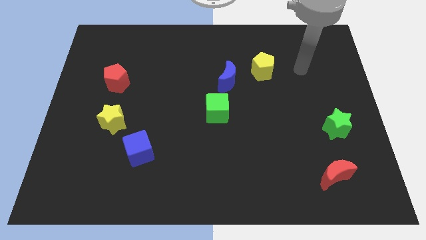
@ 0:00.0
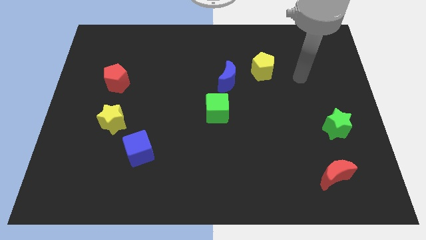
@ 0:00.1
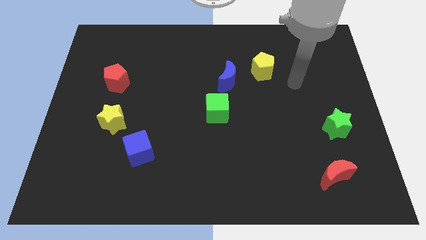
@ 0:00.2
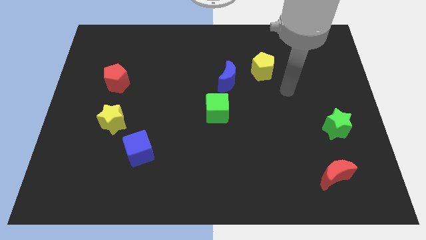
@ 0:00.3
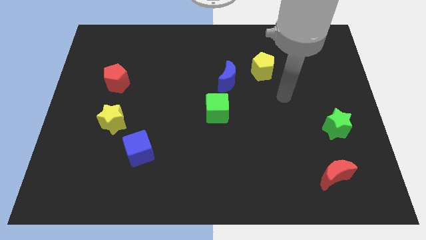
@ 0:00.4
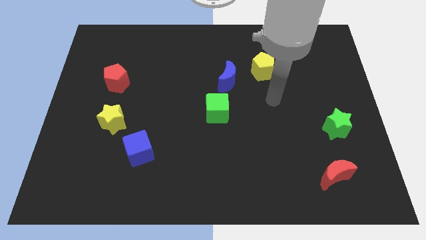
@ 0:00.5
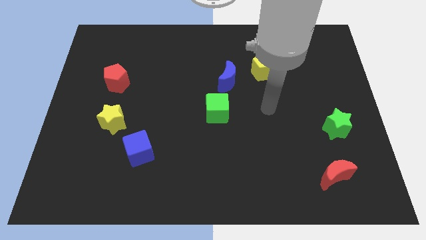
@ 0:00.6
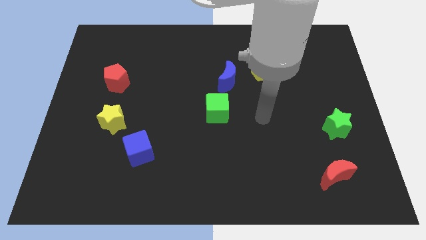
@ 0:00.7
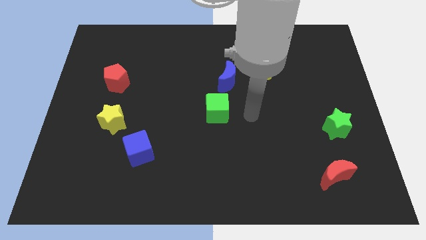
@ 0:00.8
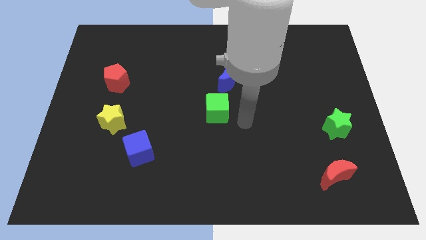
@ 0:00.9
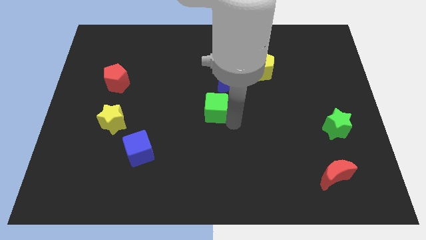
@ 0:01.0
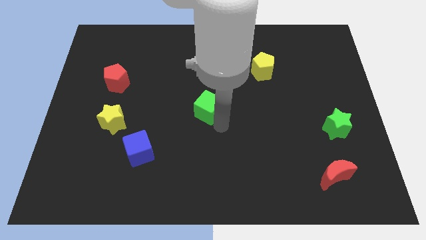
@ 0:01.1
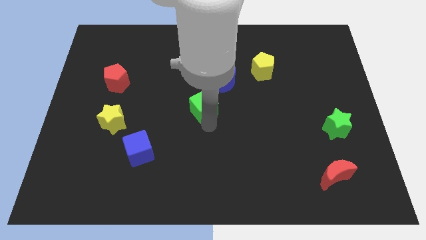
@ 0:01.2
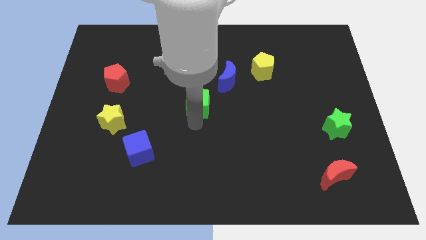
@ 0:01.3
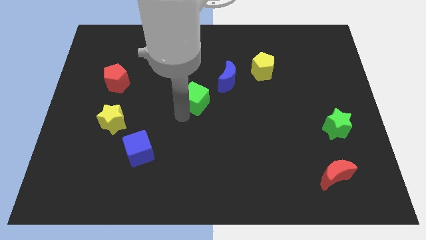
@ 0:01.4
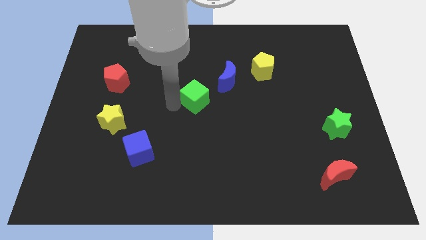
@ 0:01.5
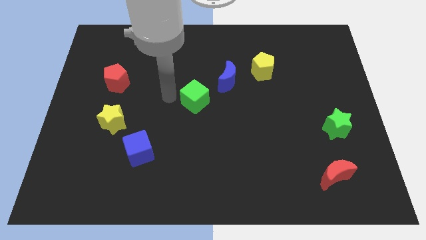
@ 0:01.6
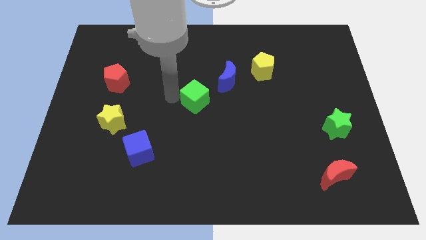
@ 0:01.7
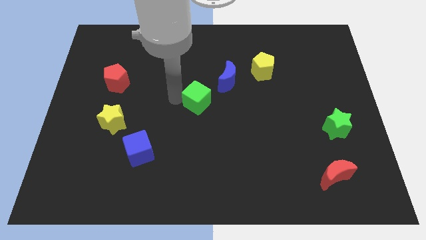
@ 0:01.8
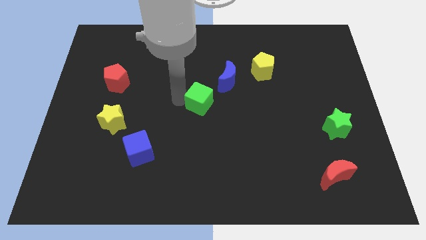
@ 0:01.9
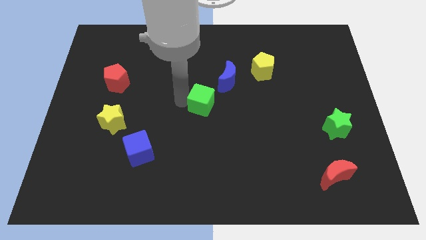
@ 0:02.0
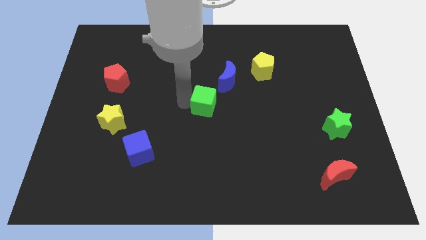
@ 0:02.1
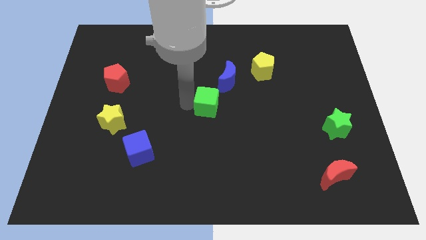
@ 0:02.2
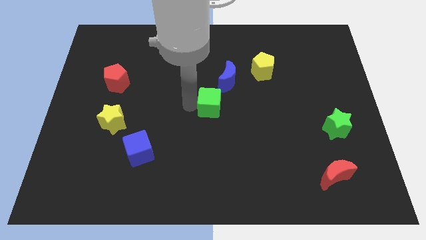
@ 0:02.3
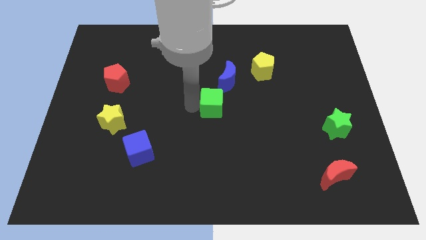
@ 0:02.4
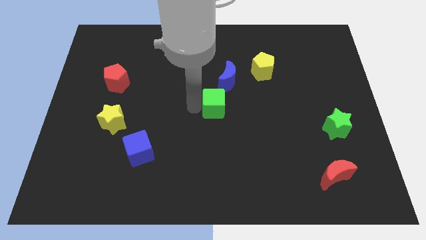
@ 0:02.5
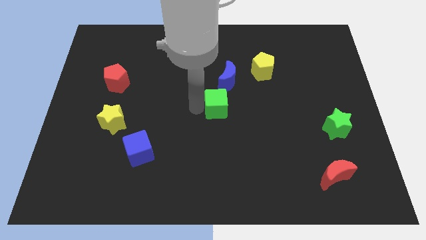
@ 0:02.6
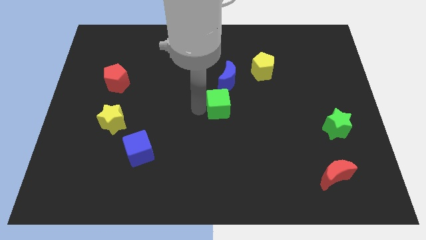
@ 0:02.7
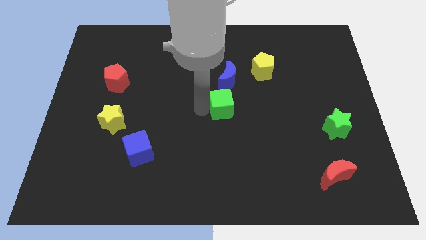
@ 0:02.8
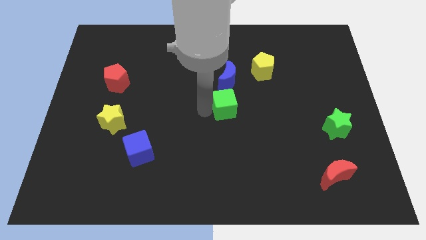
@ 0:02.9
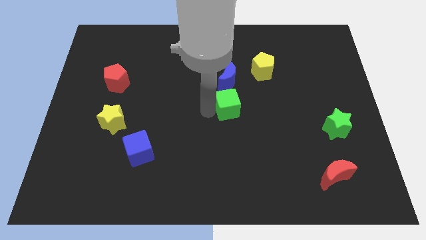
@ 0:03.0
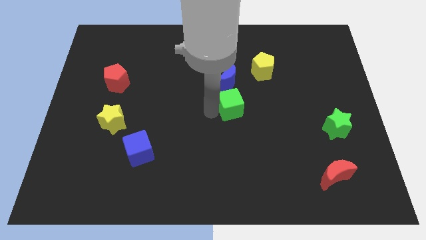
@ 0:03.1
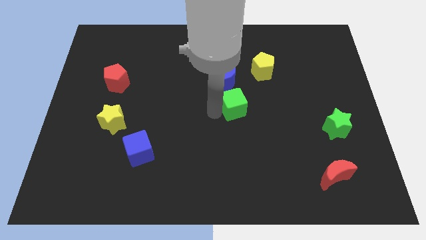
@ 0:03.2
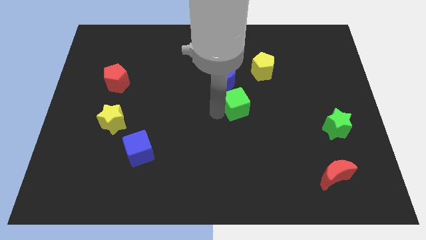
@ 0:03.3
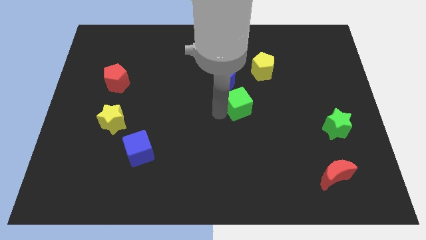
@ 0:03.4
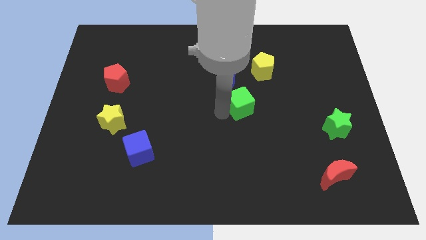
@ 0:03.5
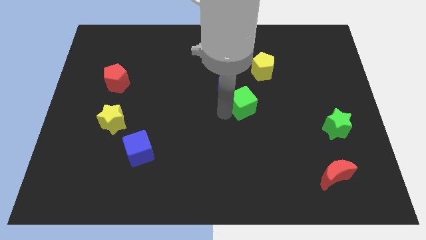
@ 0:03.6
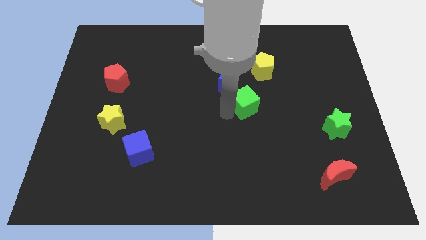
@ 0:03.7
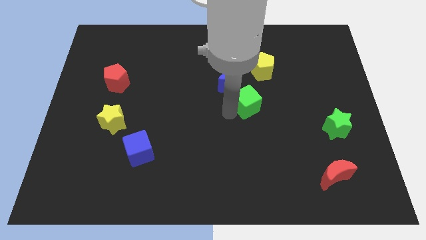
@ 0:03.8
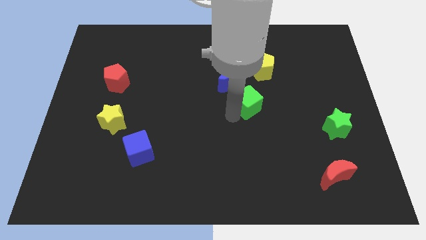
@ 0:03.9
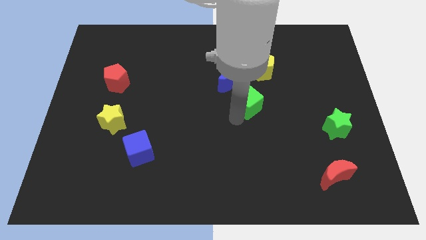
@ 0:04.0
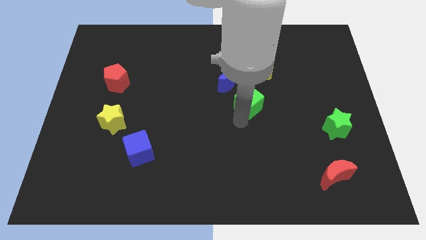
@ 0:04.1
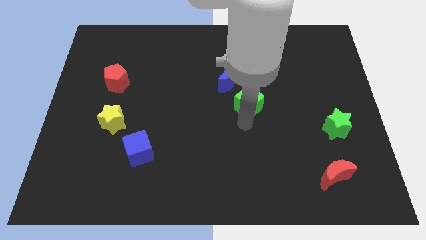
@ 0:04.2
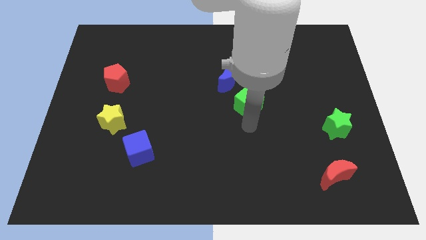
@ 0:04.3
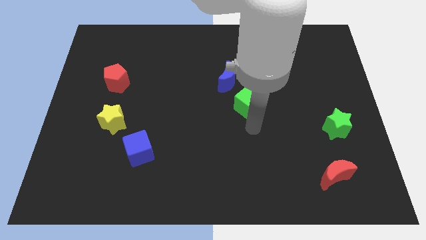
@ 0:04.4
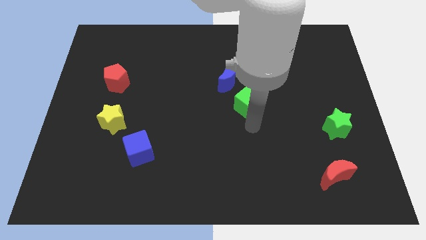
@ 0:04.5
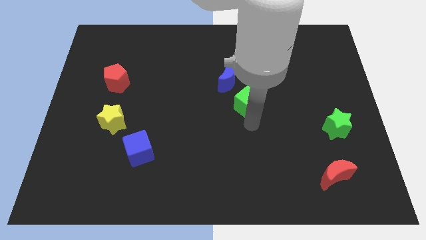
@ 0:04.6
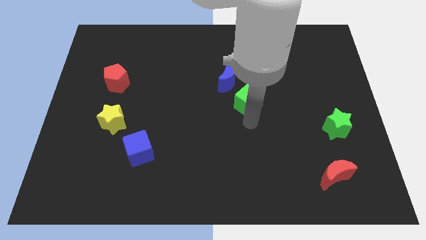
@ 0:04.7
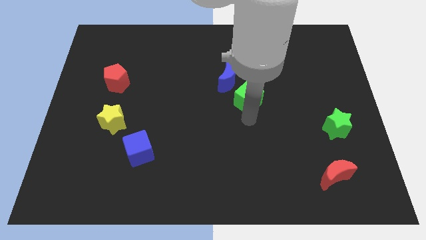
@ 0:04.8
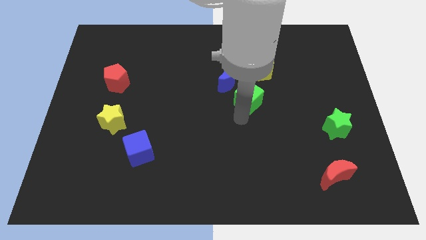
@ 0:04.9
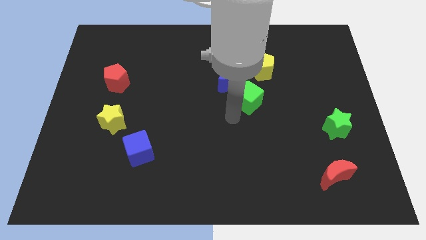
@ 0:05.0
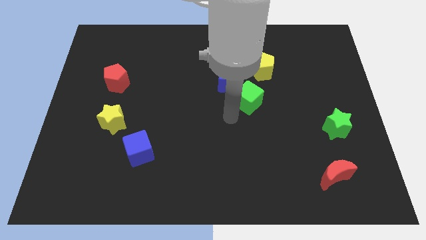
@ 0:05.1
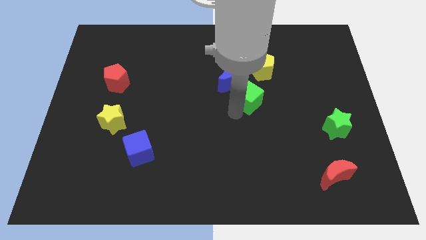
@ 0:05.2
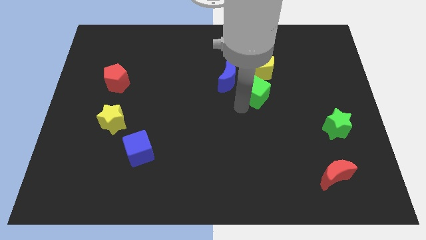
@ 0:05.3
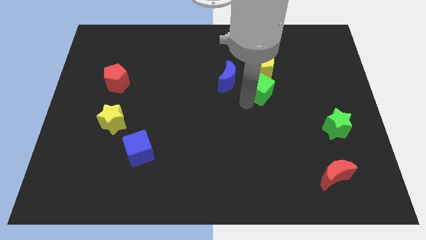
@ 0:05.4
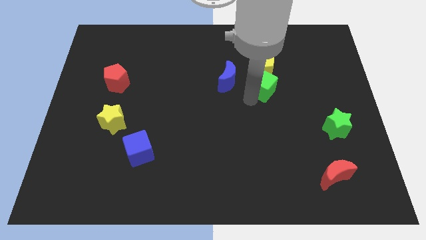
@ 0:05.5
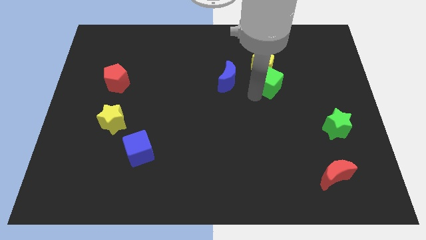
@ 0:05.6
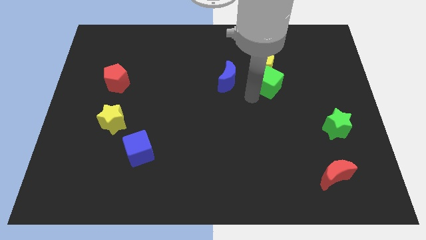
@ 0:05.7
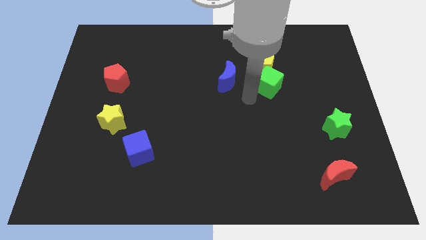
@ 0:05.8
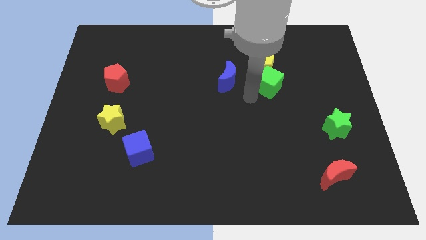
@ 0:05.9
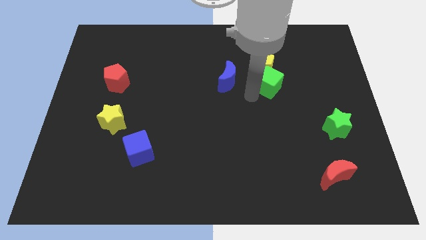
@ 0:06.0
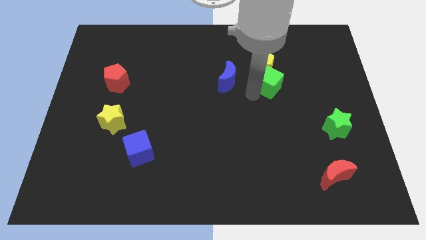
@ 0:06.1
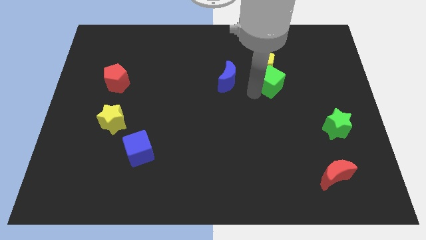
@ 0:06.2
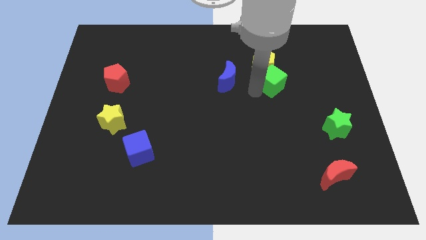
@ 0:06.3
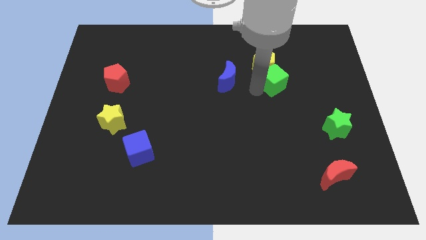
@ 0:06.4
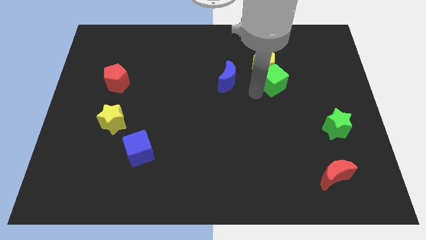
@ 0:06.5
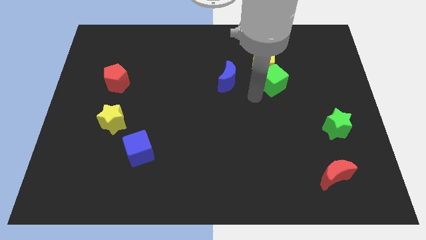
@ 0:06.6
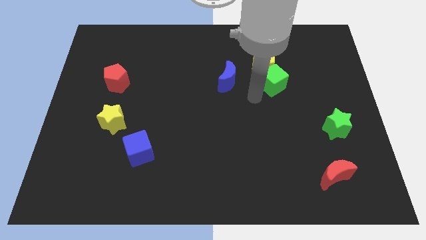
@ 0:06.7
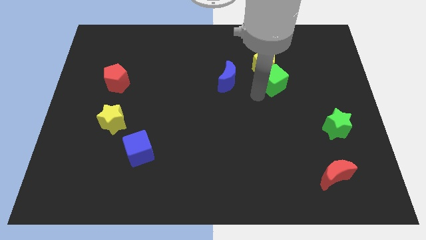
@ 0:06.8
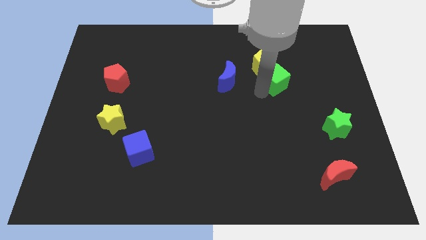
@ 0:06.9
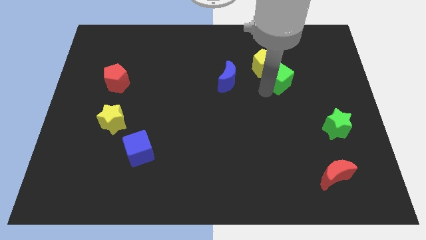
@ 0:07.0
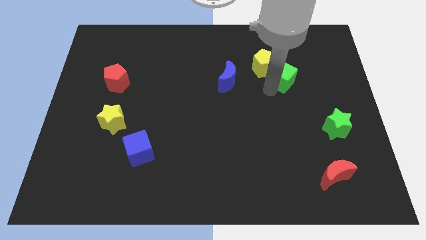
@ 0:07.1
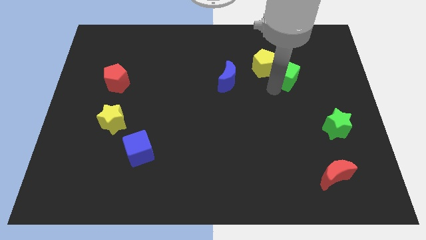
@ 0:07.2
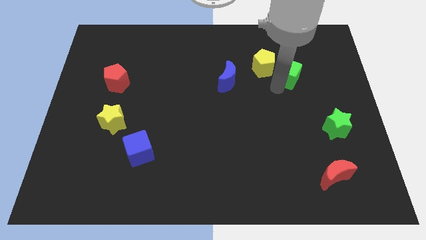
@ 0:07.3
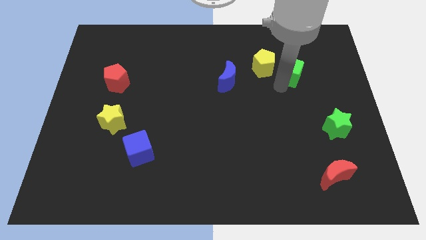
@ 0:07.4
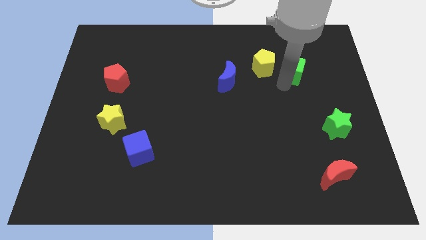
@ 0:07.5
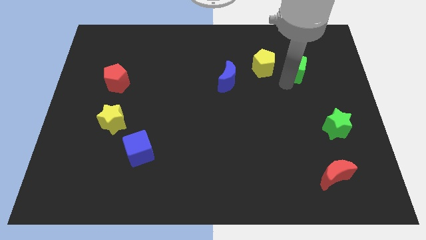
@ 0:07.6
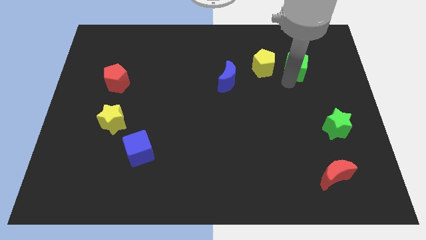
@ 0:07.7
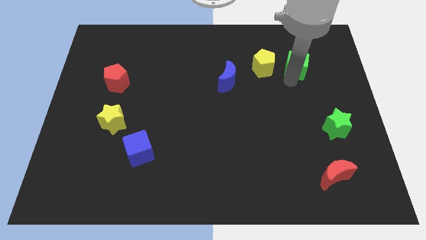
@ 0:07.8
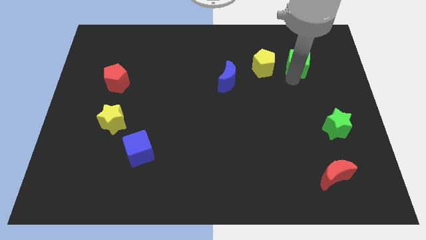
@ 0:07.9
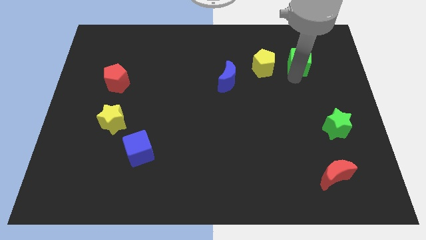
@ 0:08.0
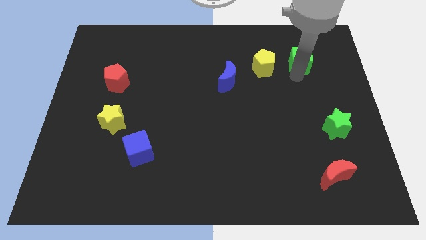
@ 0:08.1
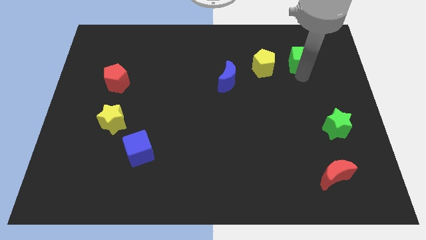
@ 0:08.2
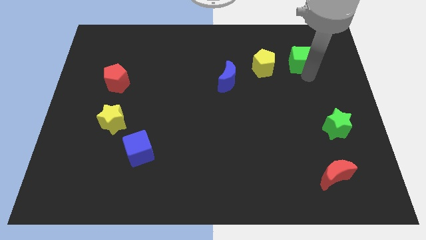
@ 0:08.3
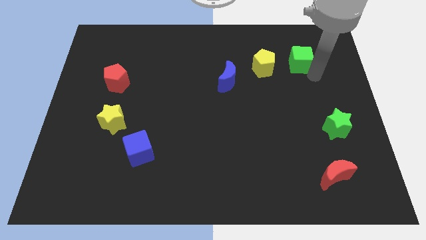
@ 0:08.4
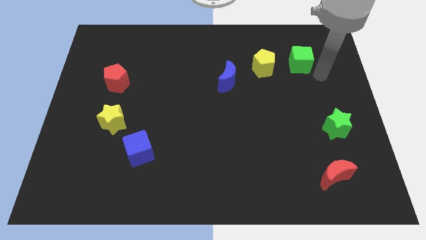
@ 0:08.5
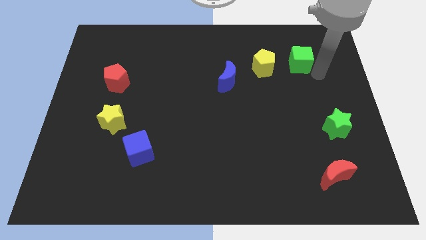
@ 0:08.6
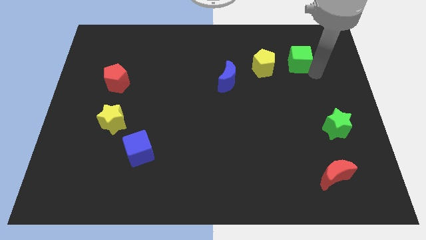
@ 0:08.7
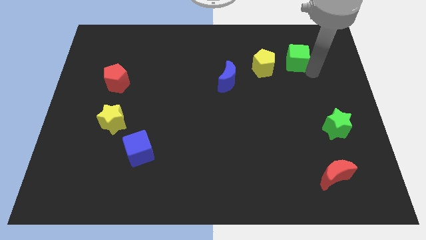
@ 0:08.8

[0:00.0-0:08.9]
put the green cube to the top right side of the yellow pentagon
